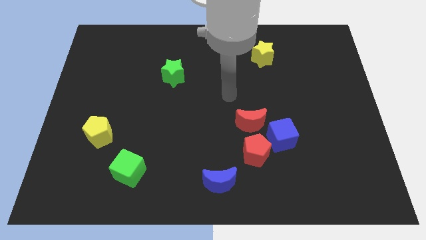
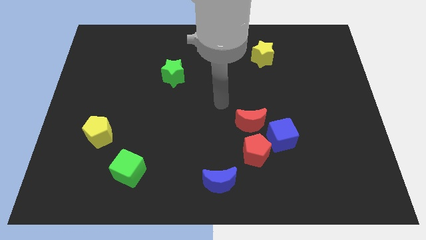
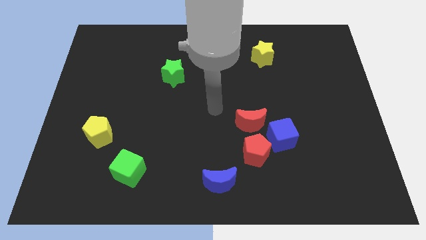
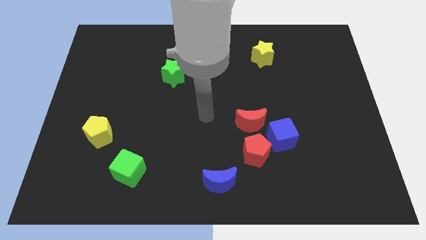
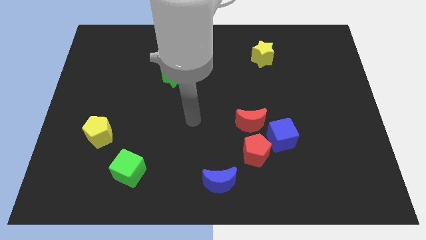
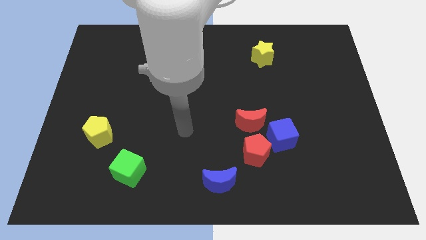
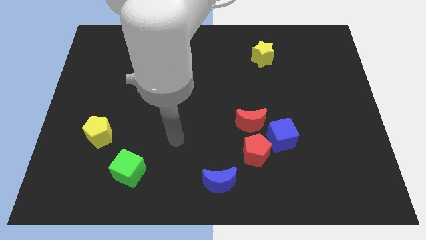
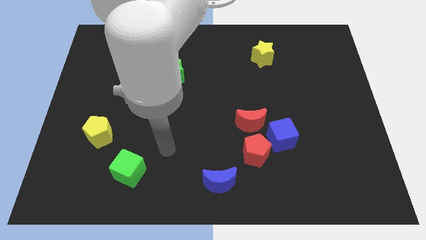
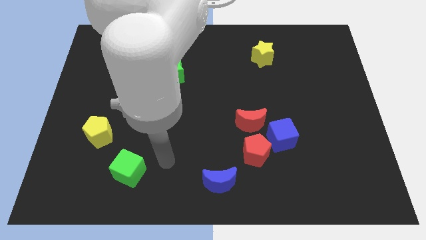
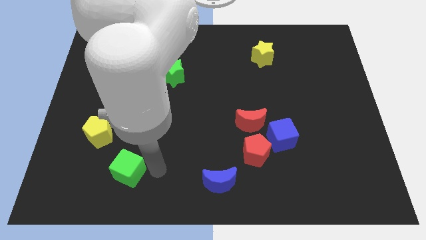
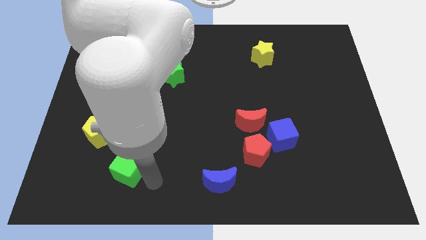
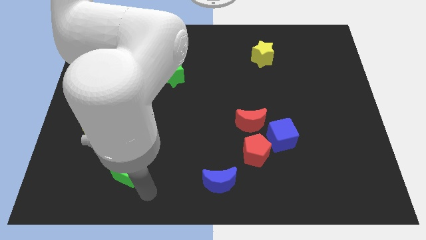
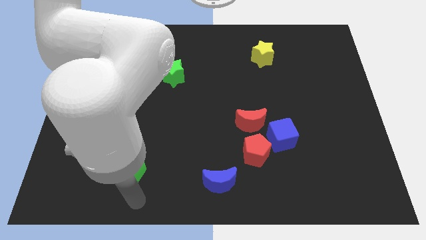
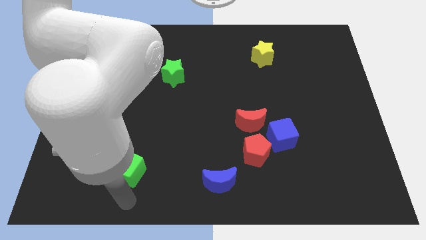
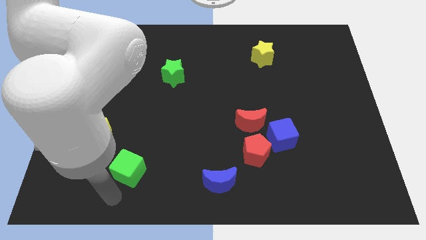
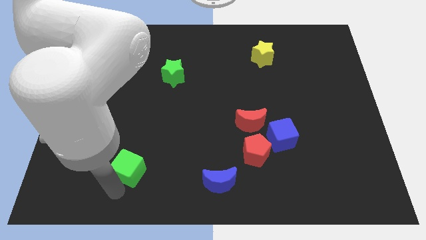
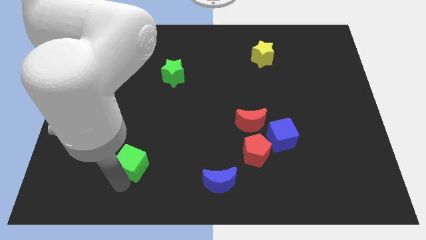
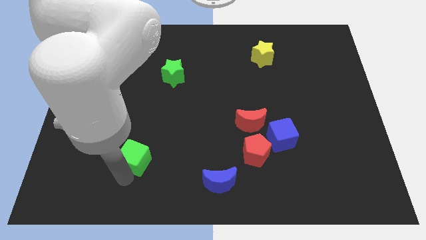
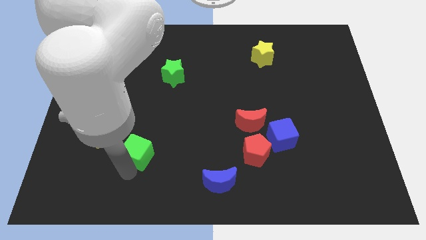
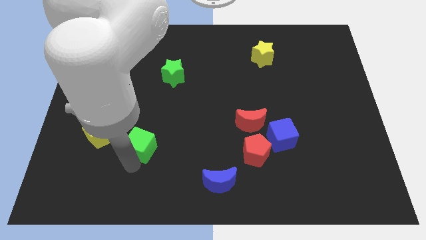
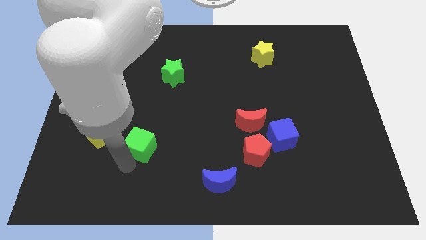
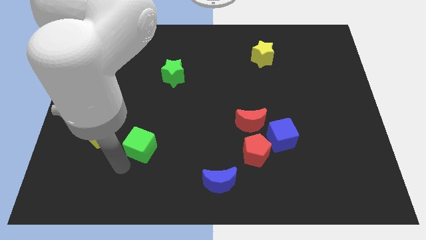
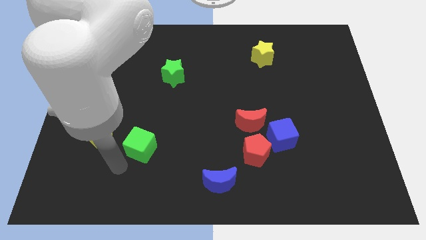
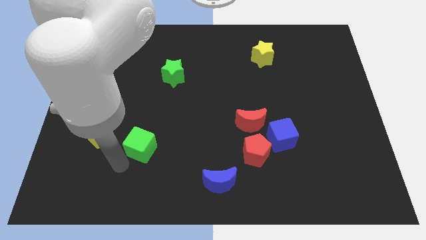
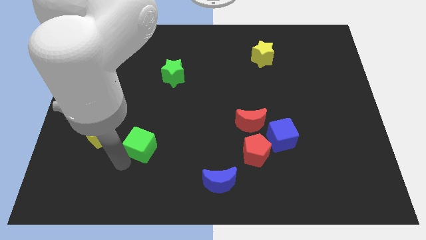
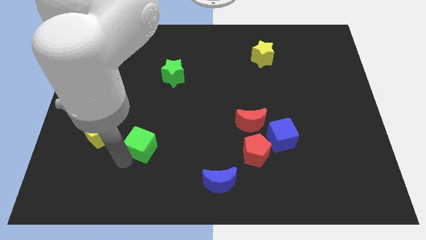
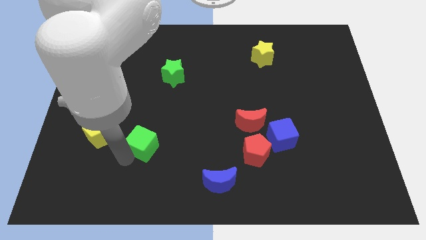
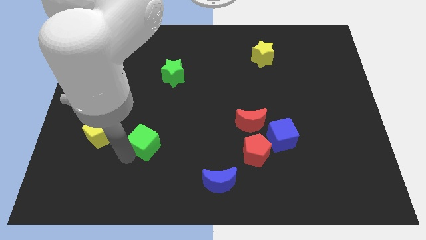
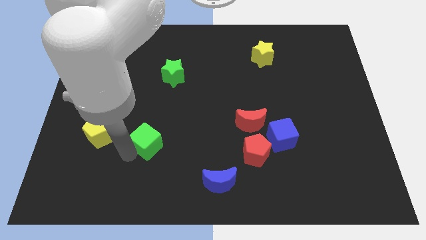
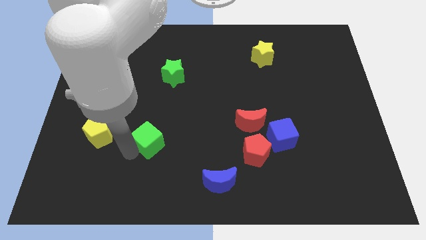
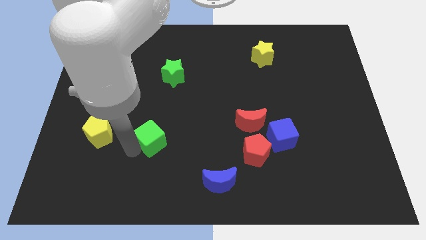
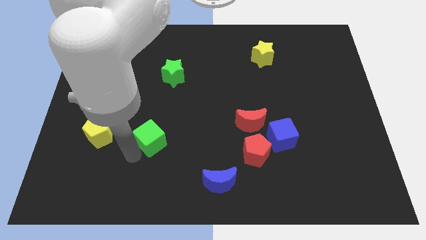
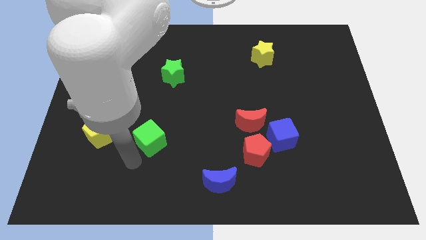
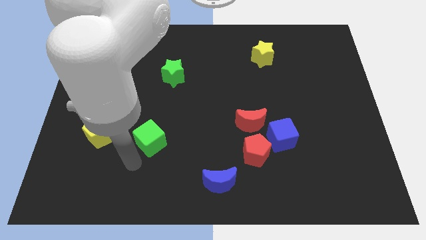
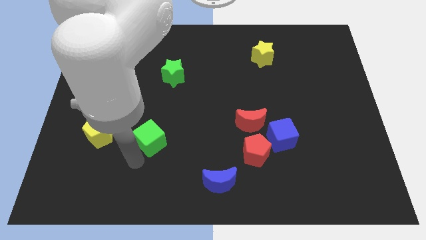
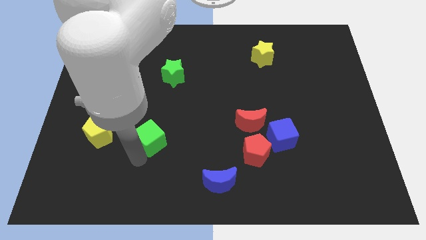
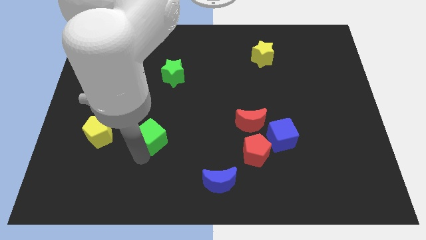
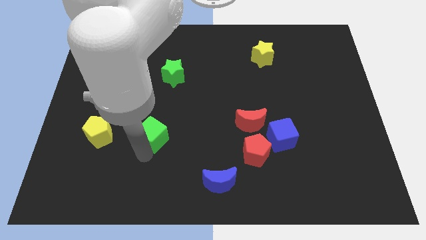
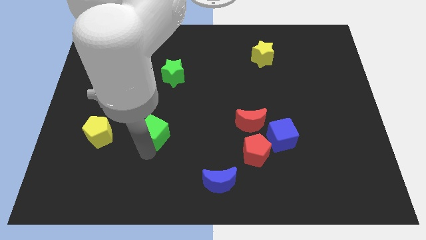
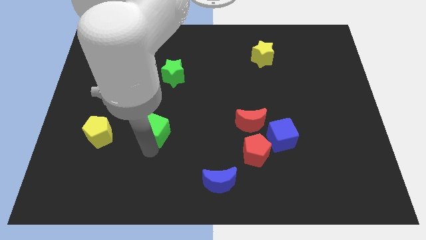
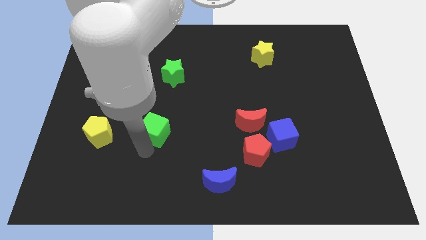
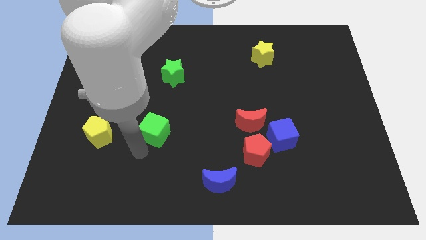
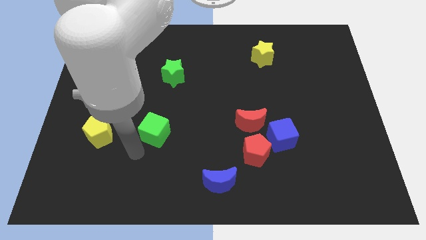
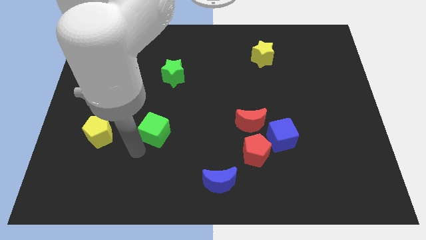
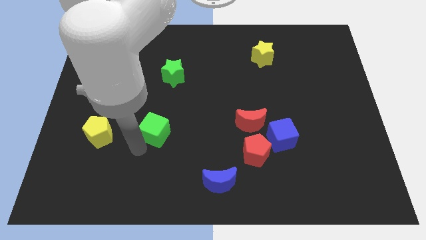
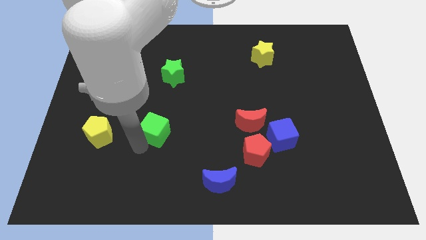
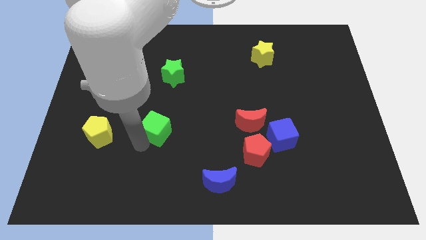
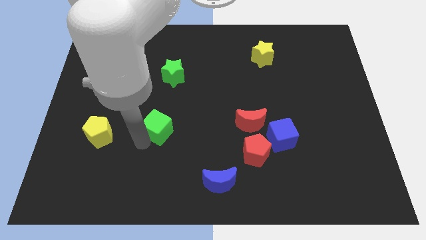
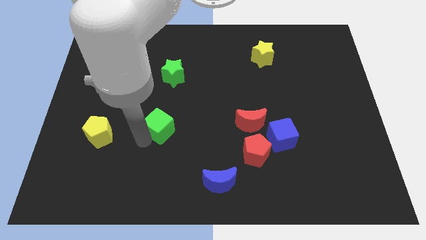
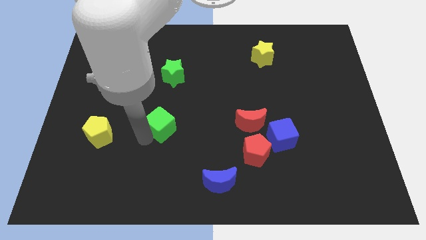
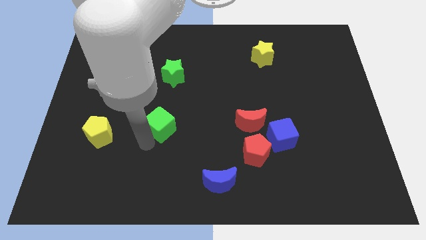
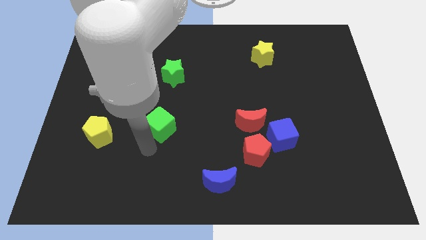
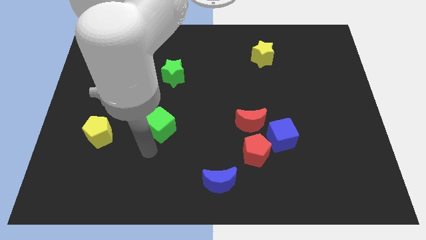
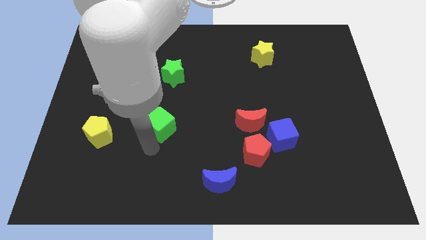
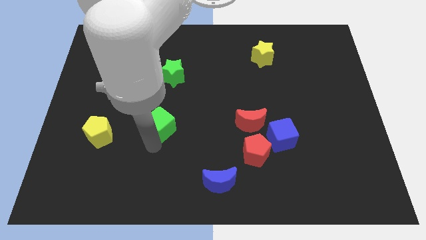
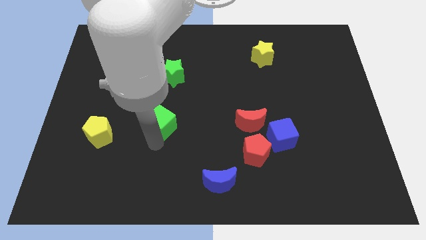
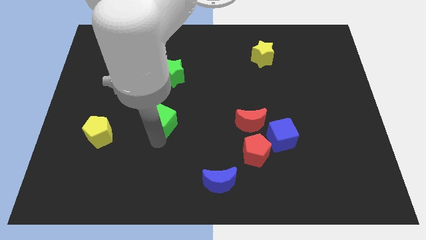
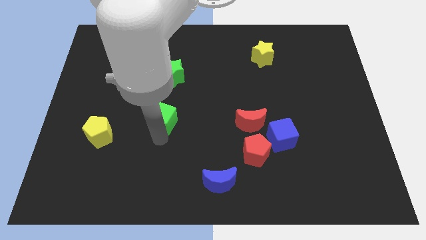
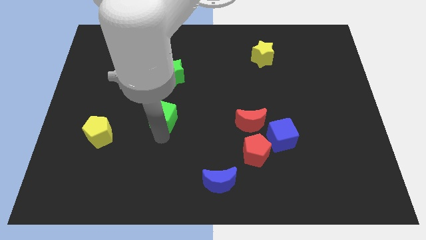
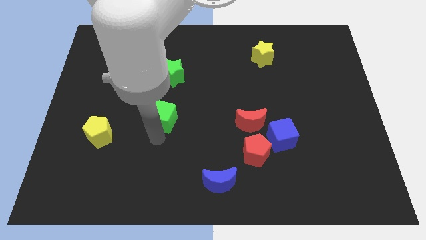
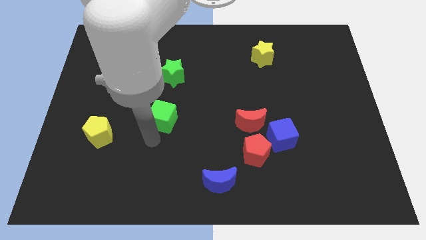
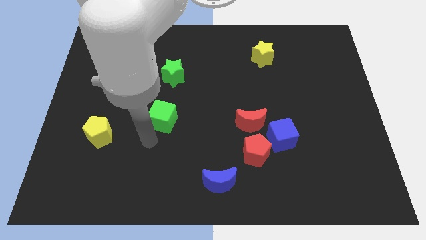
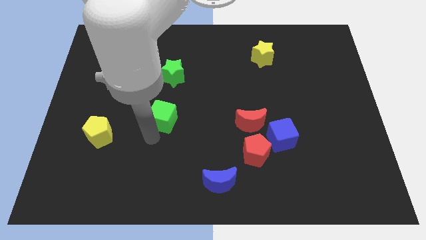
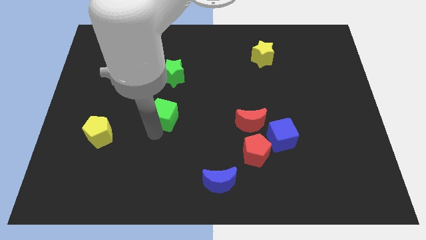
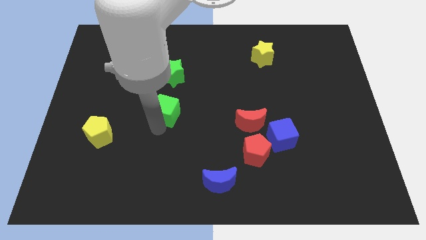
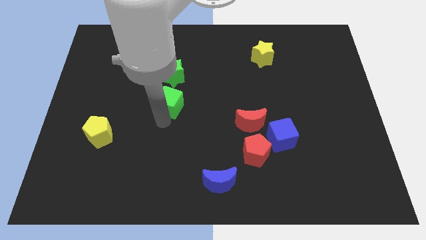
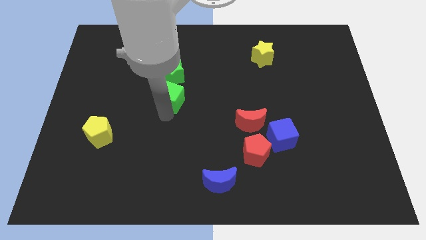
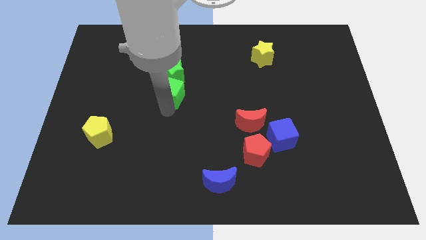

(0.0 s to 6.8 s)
push the green cube close to the green star

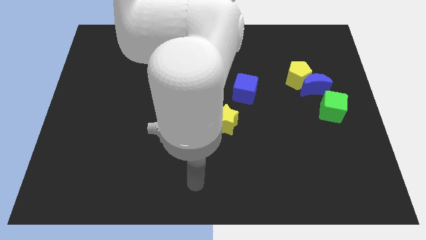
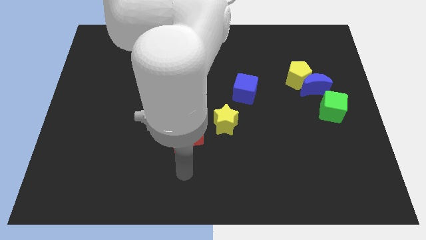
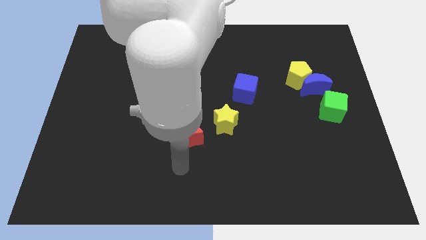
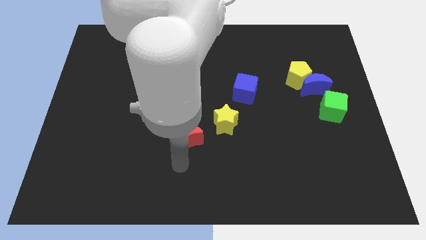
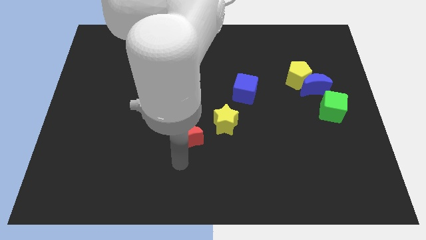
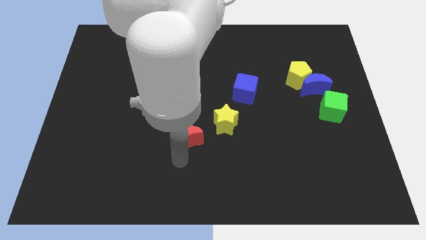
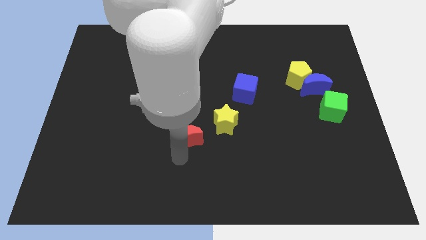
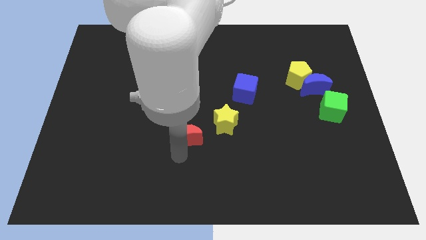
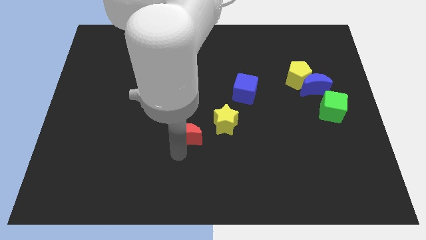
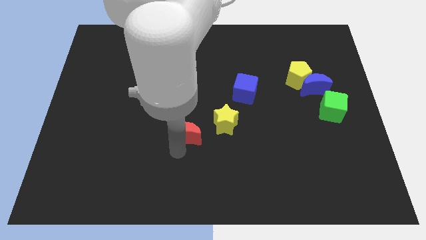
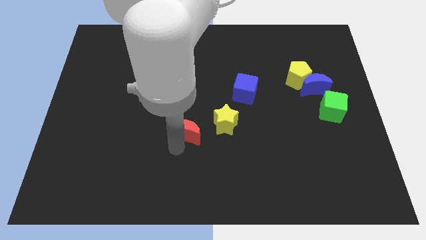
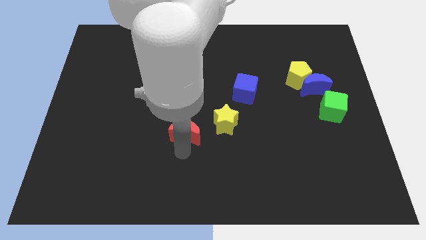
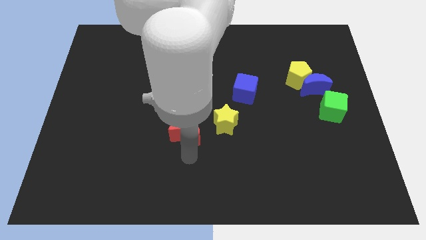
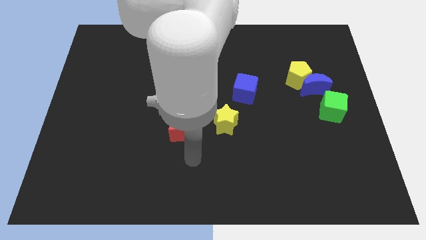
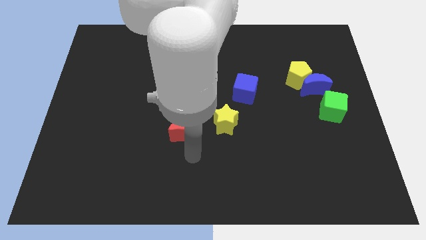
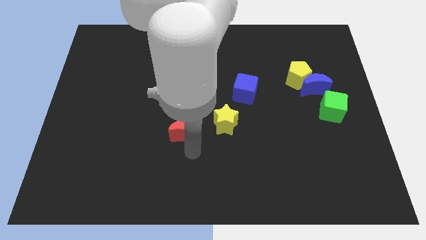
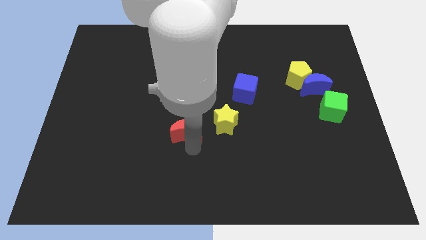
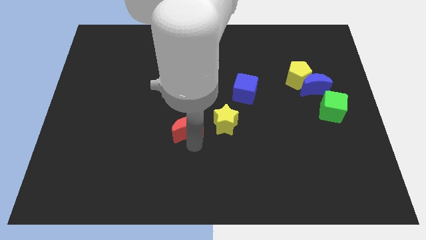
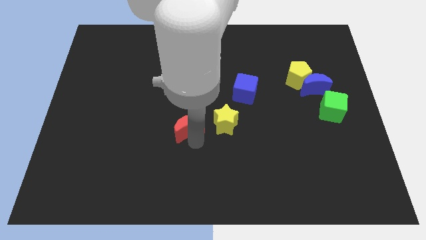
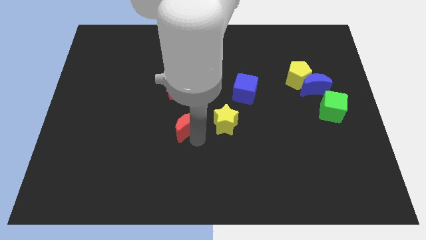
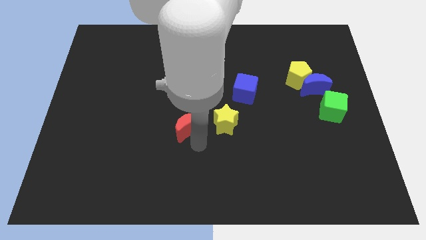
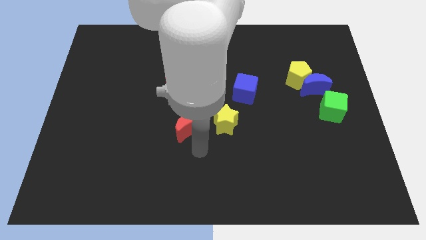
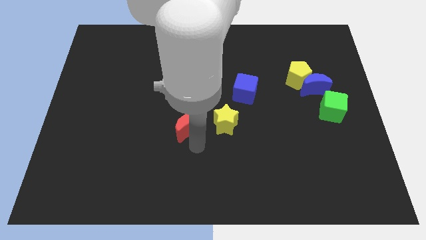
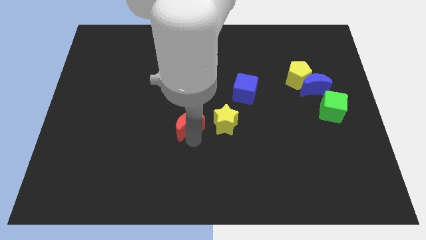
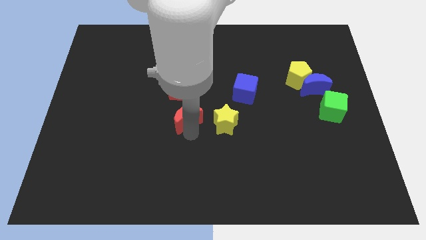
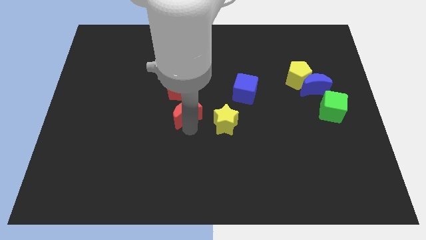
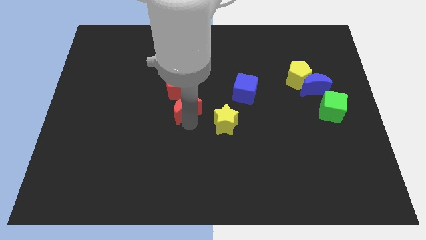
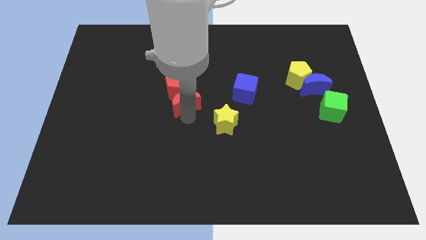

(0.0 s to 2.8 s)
push the red moon towards the red pentagon
